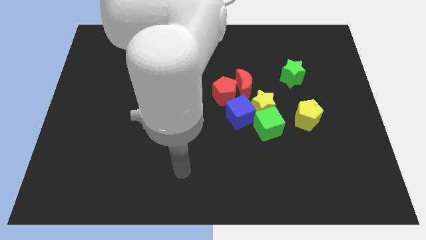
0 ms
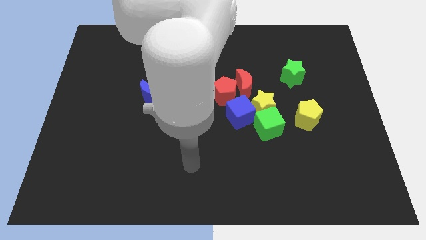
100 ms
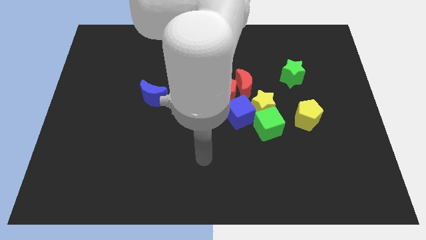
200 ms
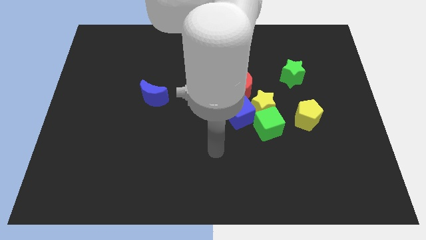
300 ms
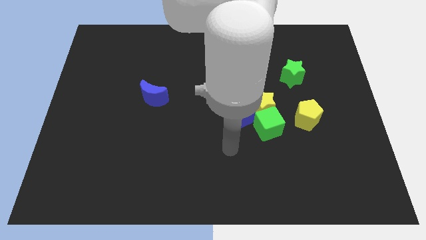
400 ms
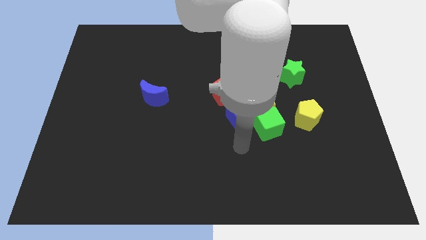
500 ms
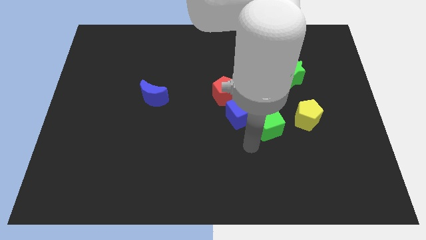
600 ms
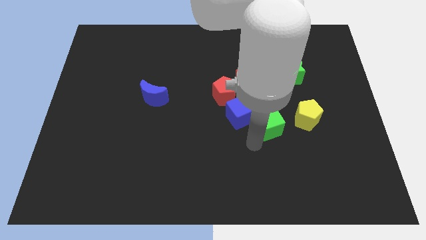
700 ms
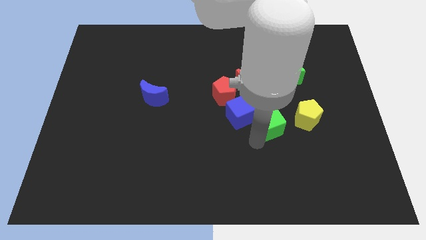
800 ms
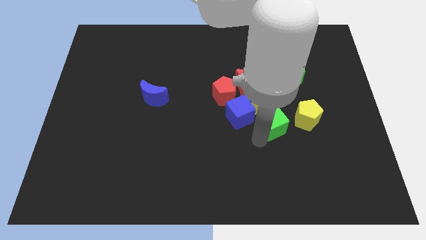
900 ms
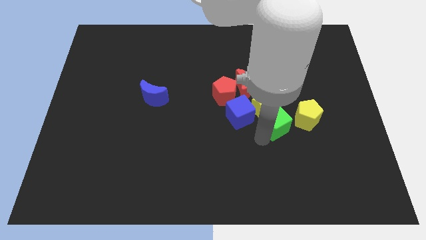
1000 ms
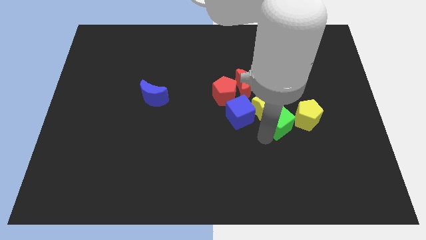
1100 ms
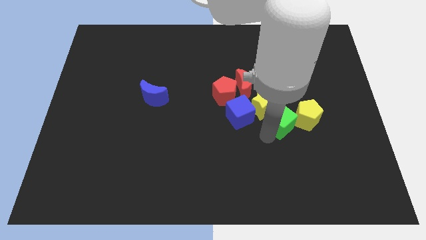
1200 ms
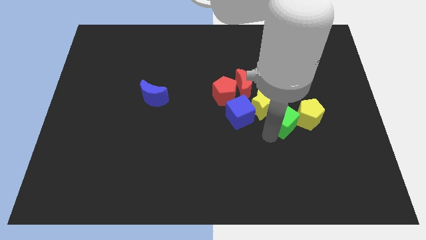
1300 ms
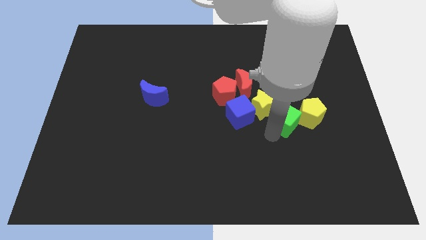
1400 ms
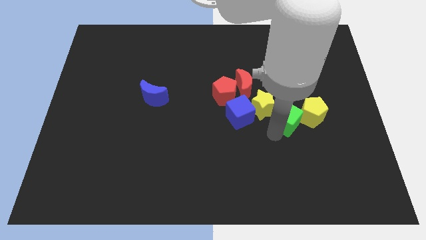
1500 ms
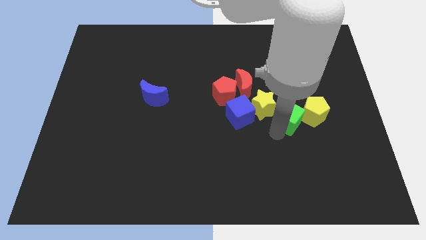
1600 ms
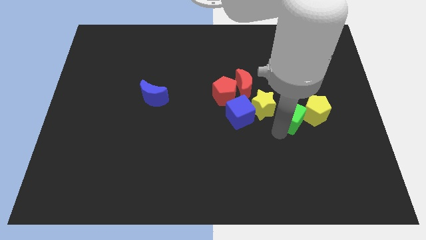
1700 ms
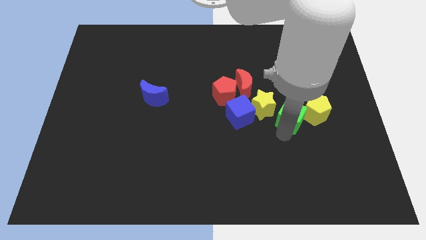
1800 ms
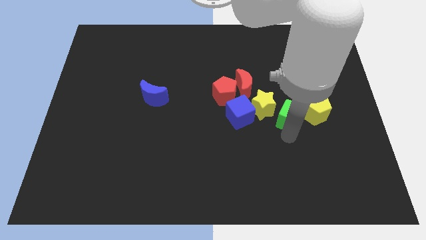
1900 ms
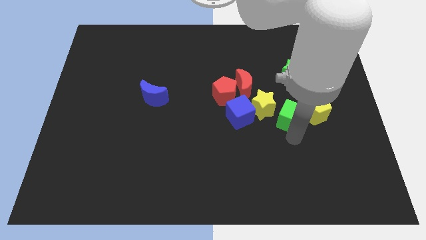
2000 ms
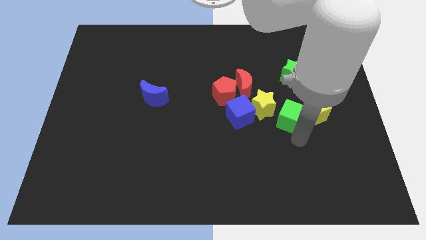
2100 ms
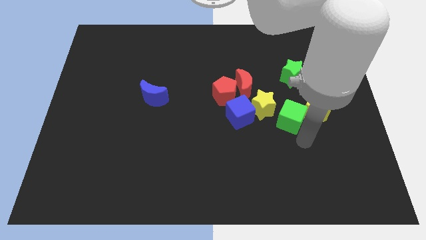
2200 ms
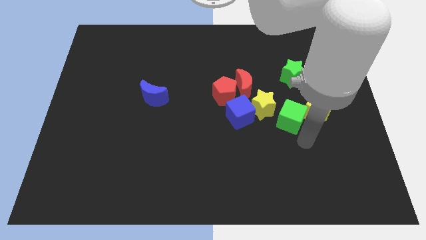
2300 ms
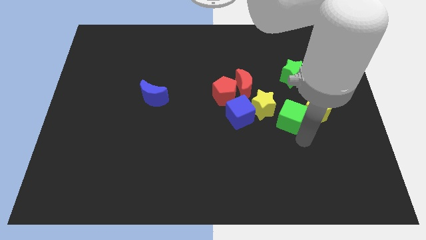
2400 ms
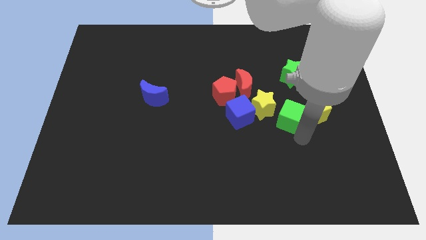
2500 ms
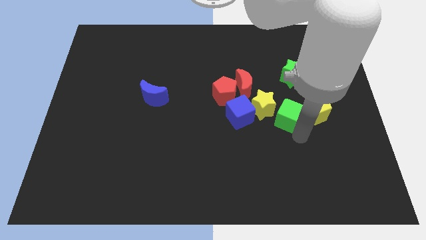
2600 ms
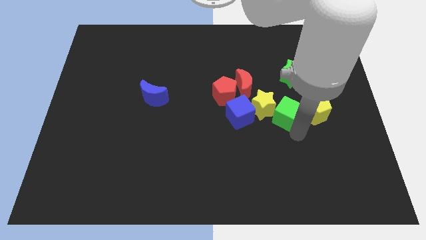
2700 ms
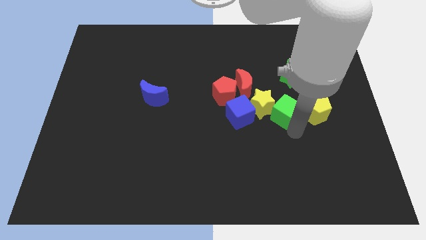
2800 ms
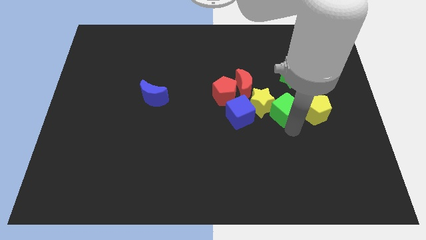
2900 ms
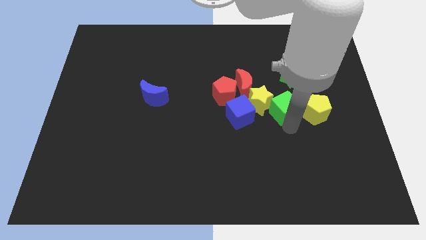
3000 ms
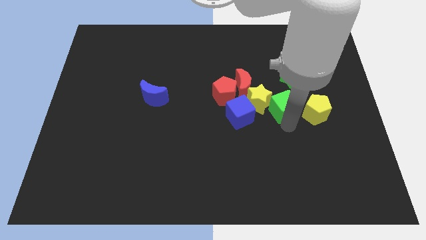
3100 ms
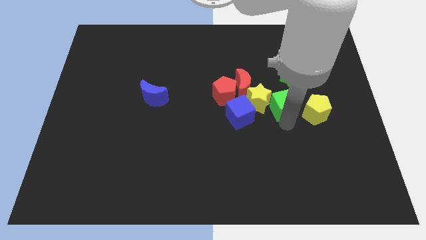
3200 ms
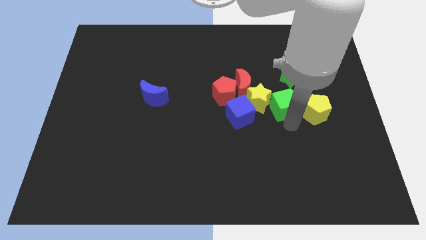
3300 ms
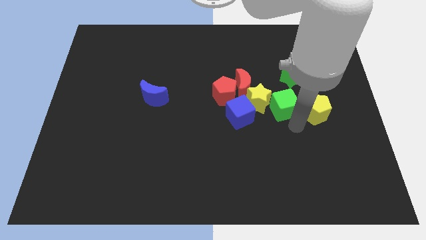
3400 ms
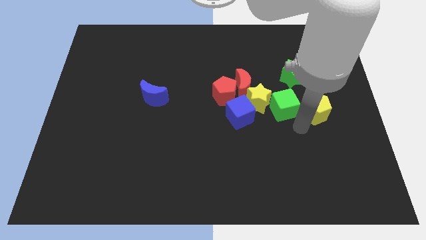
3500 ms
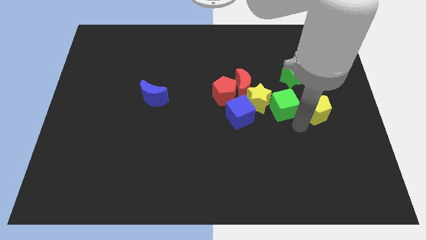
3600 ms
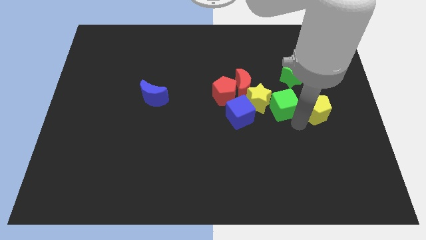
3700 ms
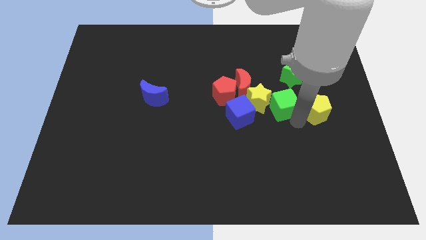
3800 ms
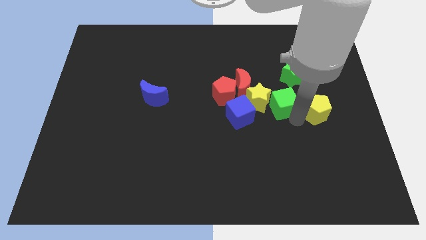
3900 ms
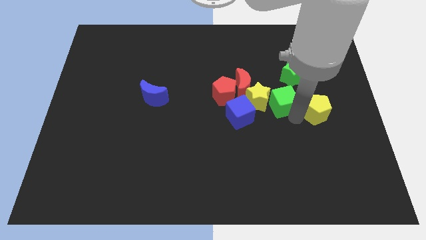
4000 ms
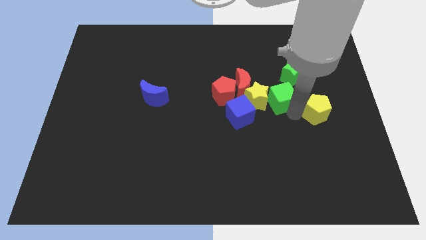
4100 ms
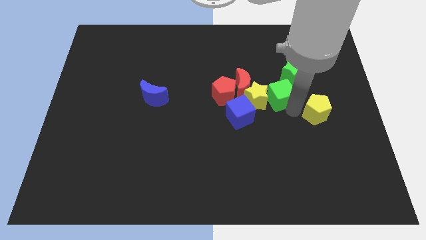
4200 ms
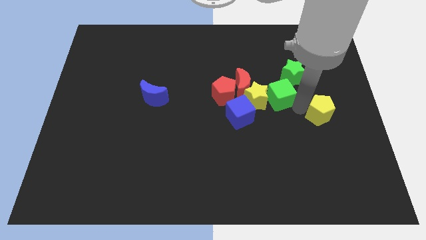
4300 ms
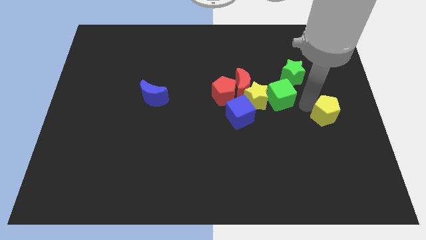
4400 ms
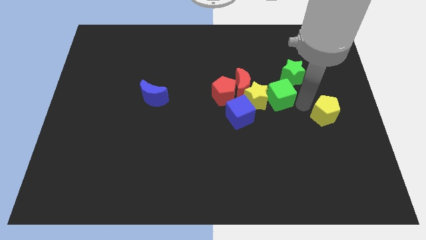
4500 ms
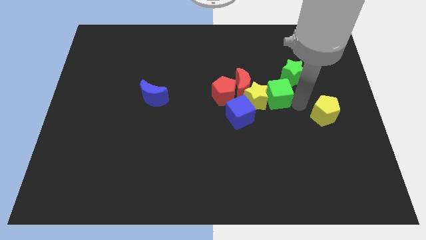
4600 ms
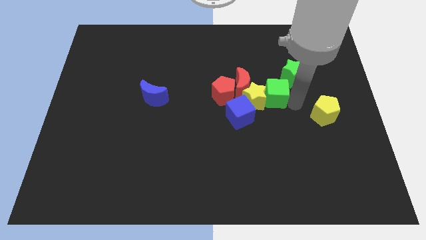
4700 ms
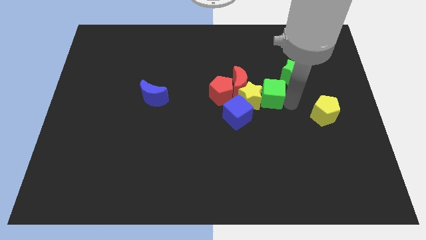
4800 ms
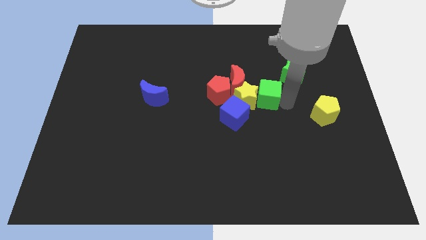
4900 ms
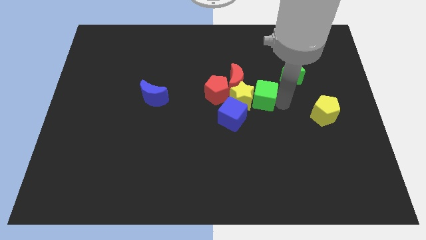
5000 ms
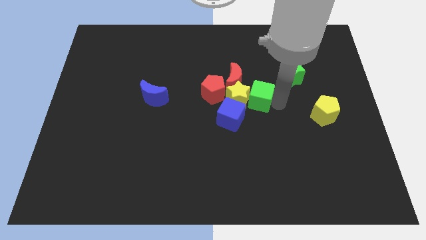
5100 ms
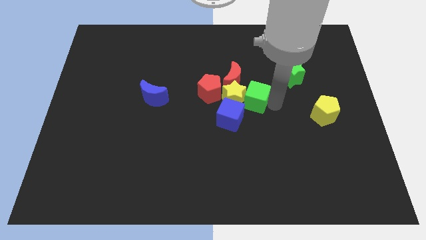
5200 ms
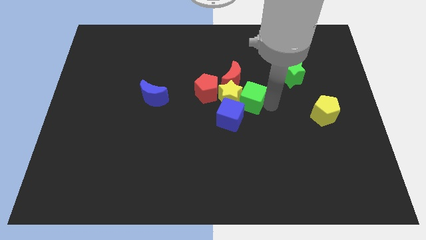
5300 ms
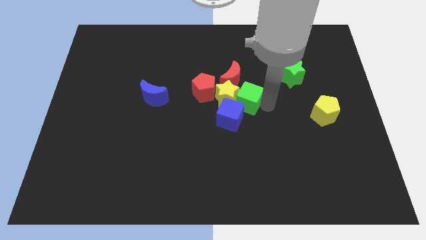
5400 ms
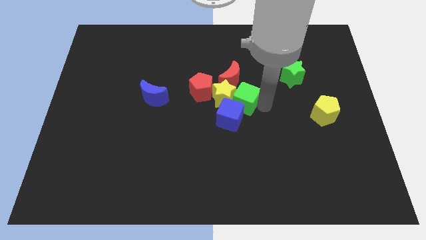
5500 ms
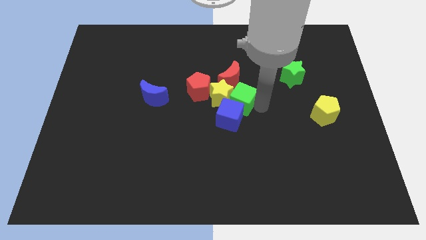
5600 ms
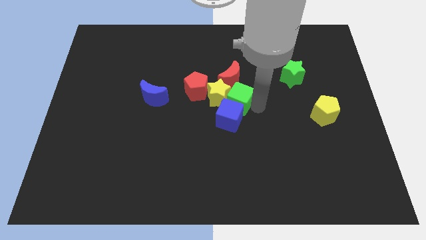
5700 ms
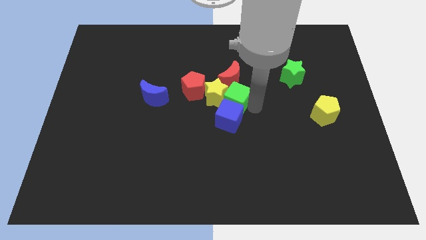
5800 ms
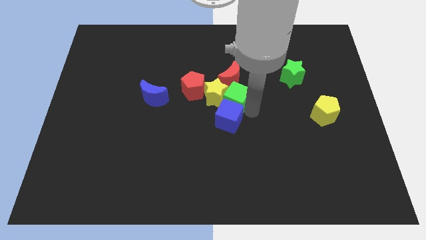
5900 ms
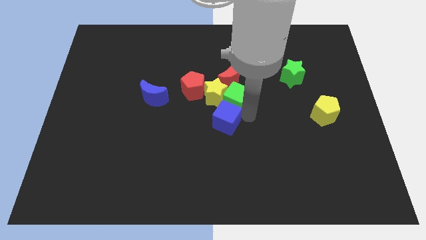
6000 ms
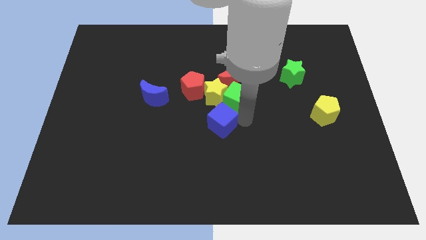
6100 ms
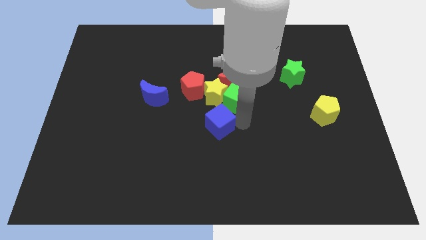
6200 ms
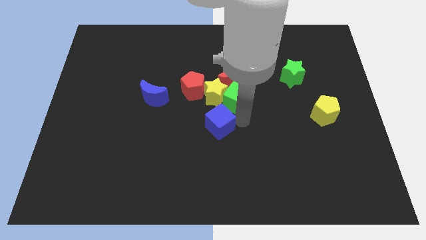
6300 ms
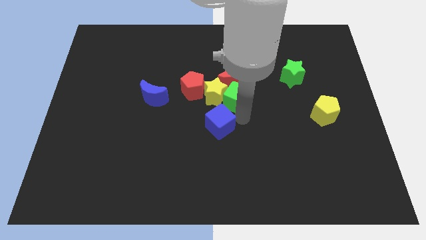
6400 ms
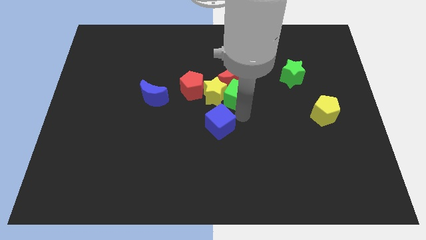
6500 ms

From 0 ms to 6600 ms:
slide the green cube close to the red moon

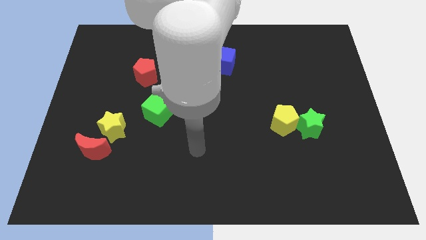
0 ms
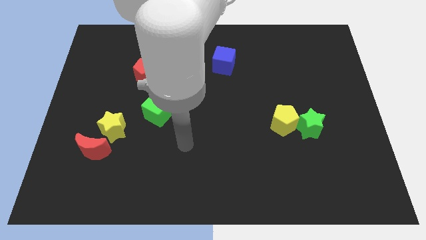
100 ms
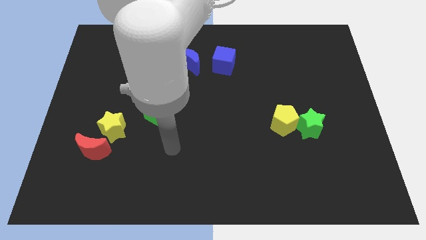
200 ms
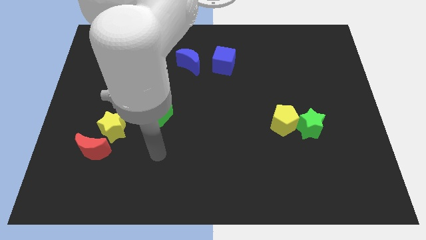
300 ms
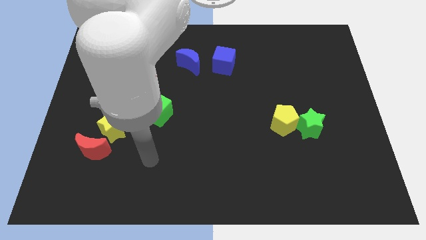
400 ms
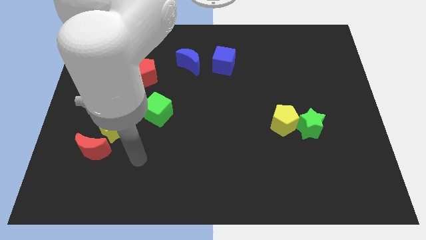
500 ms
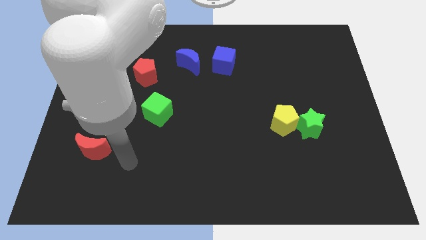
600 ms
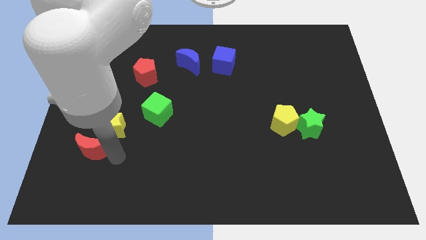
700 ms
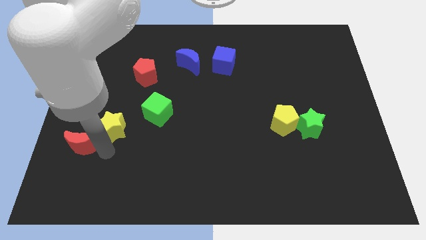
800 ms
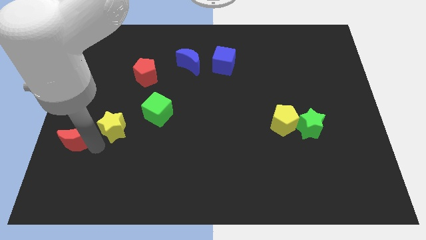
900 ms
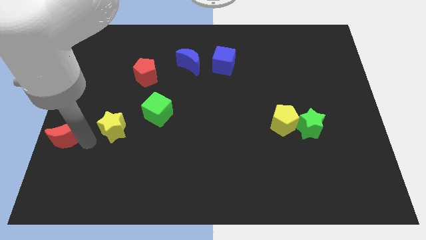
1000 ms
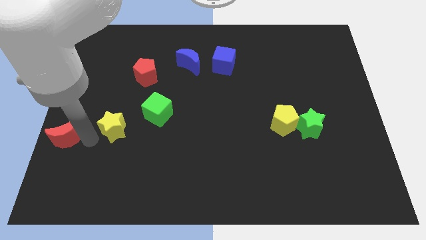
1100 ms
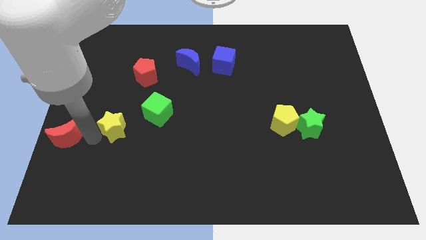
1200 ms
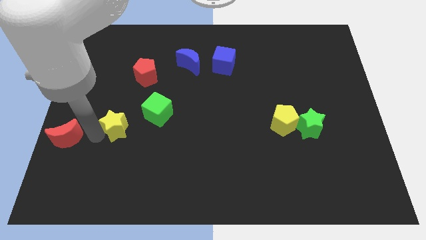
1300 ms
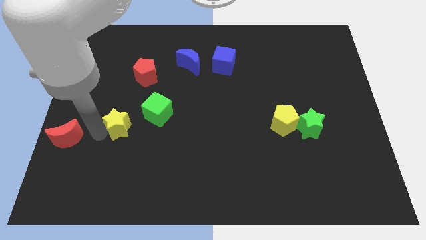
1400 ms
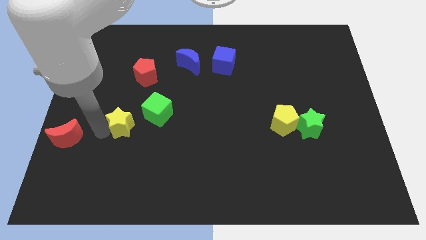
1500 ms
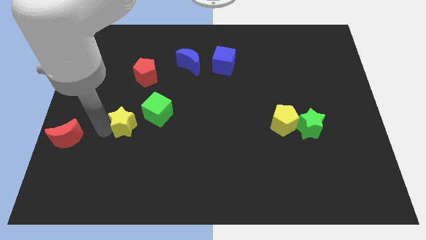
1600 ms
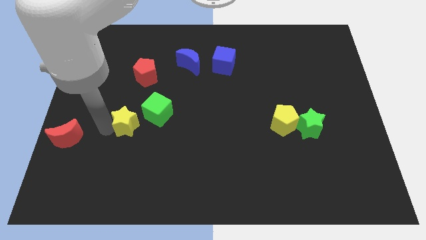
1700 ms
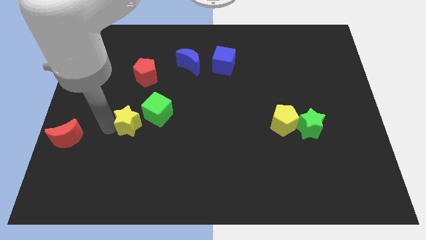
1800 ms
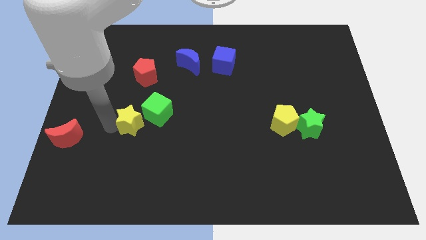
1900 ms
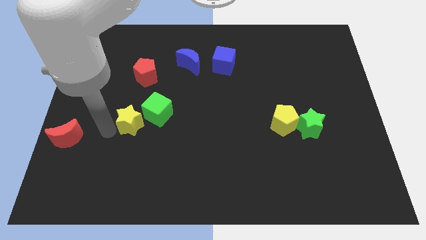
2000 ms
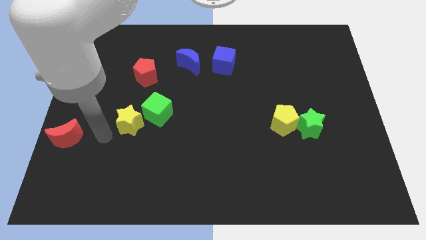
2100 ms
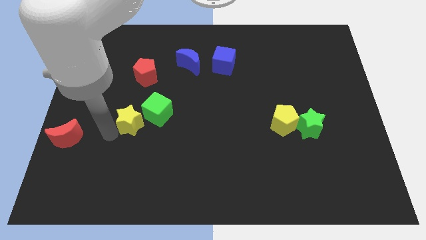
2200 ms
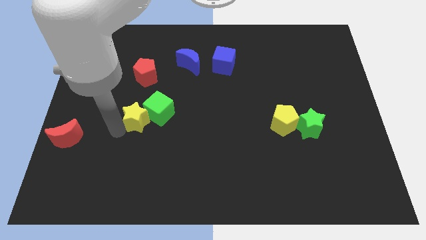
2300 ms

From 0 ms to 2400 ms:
push the yellow star next to the green cube
